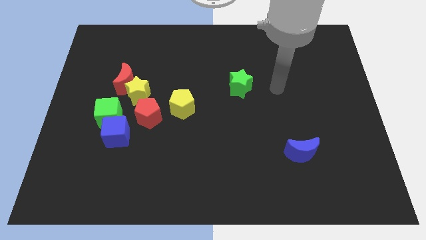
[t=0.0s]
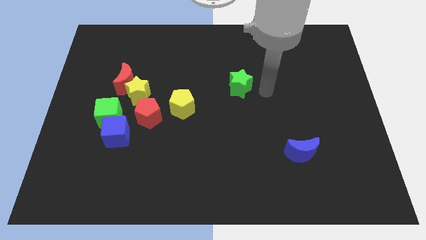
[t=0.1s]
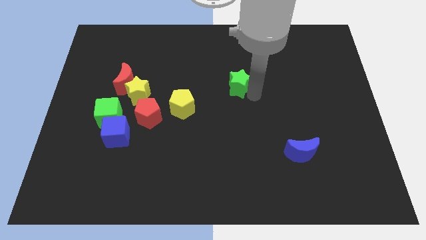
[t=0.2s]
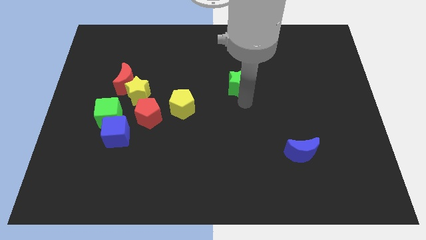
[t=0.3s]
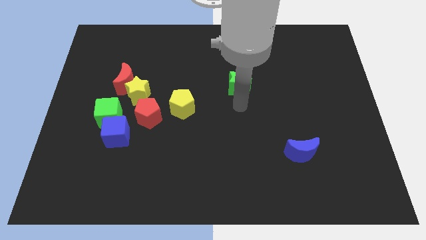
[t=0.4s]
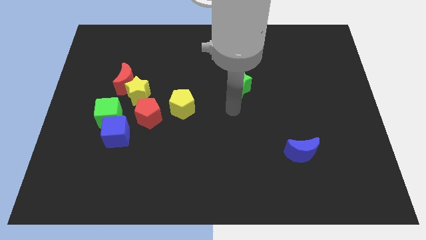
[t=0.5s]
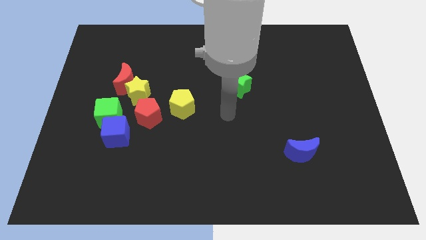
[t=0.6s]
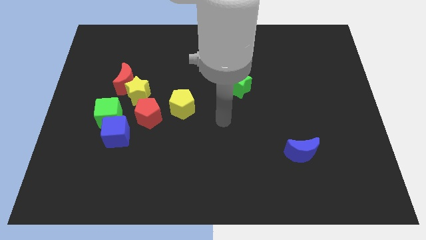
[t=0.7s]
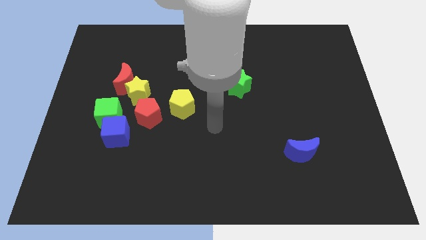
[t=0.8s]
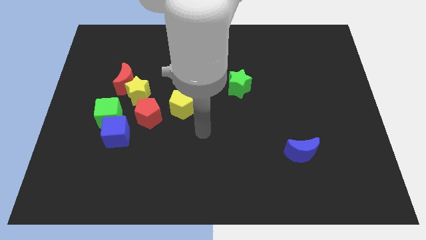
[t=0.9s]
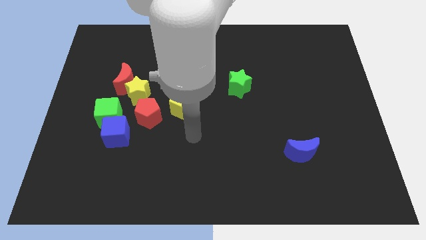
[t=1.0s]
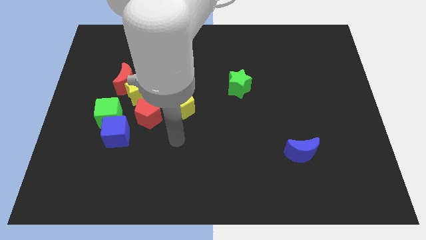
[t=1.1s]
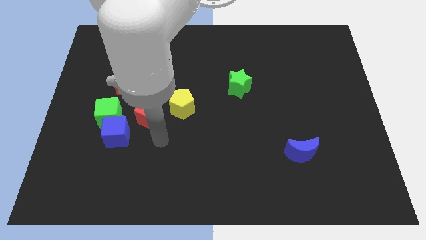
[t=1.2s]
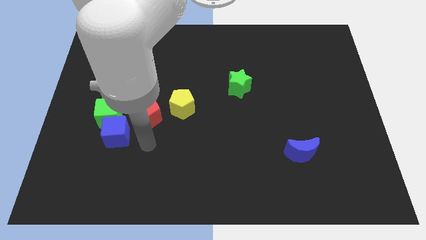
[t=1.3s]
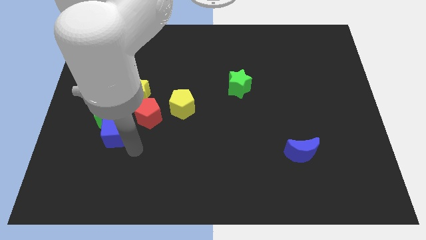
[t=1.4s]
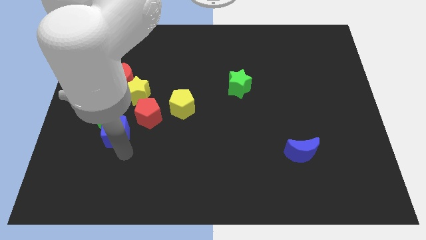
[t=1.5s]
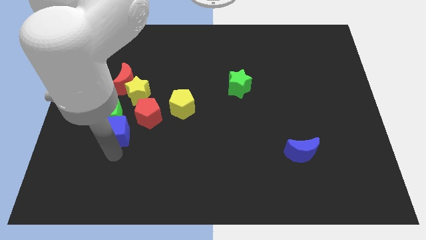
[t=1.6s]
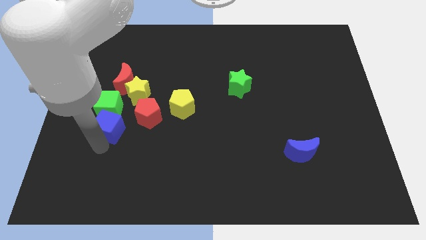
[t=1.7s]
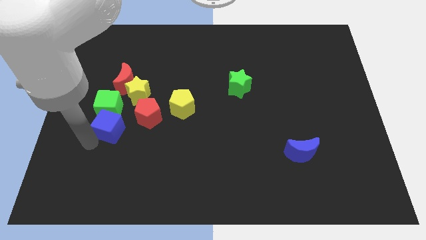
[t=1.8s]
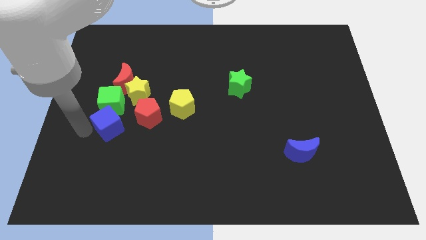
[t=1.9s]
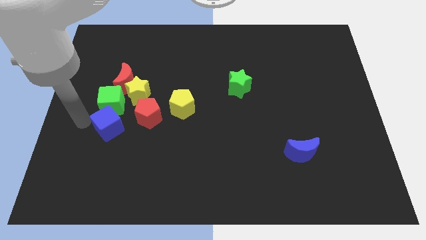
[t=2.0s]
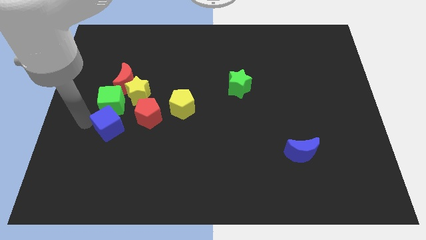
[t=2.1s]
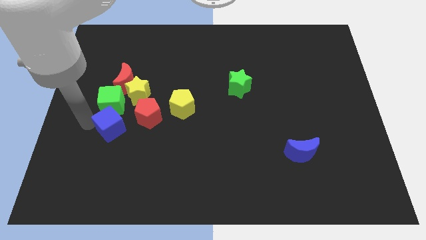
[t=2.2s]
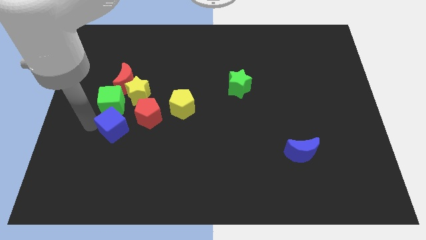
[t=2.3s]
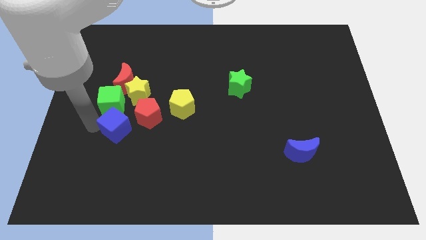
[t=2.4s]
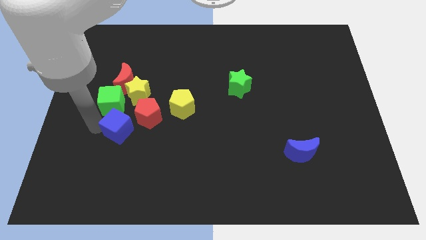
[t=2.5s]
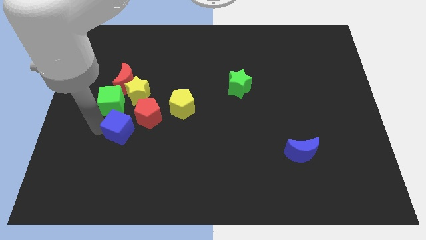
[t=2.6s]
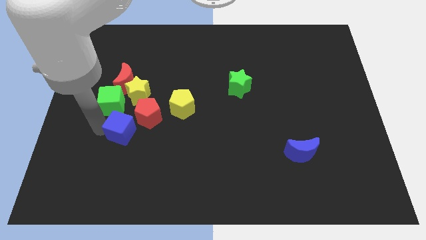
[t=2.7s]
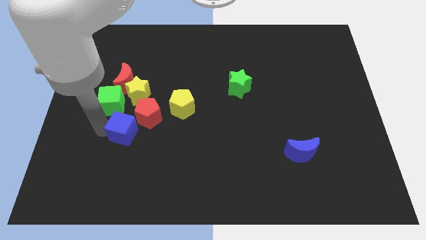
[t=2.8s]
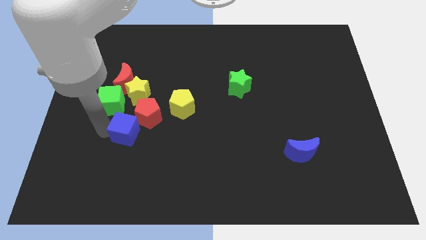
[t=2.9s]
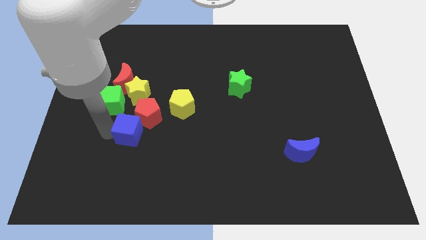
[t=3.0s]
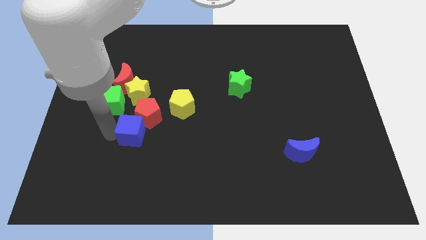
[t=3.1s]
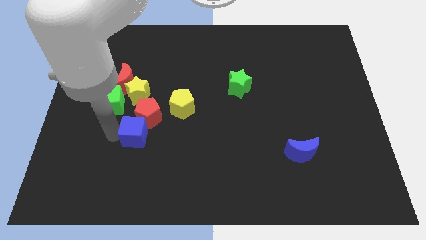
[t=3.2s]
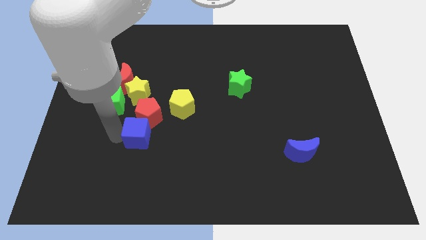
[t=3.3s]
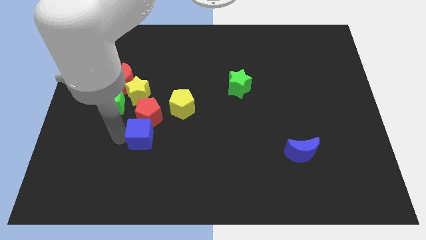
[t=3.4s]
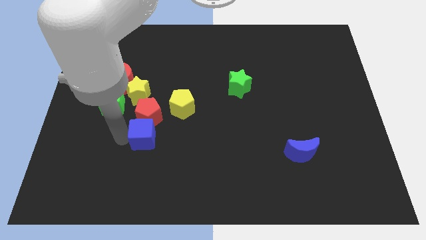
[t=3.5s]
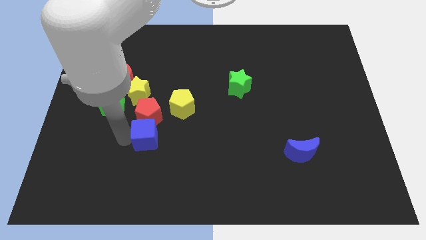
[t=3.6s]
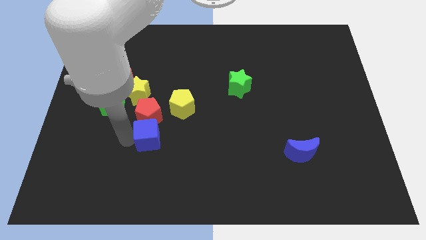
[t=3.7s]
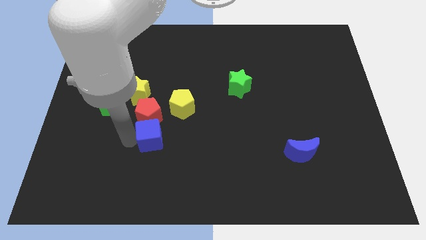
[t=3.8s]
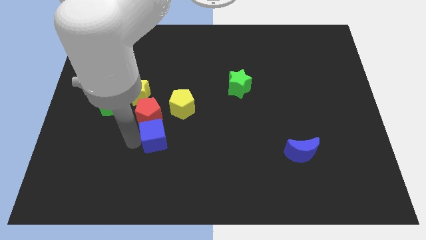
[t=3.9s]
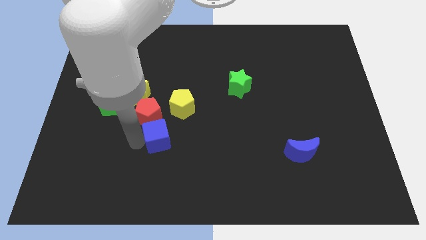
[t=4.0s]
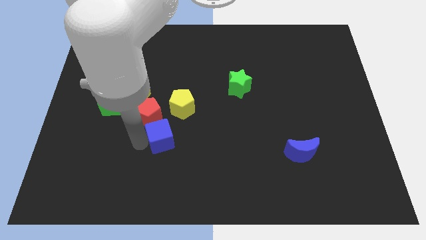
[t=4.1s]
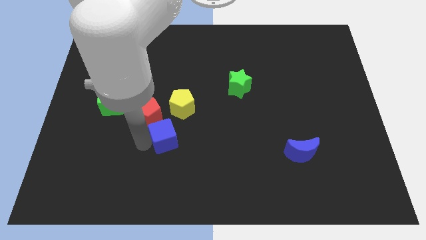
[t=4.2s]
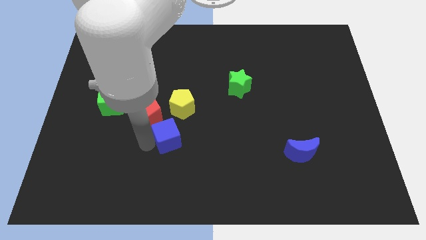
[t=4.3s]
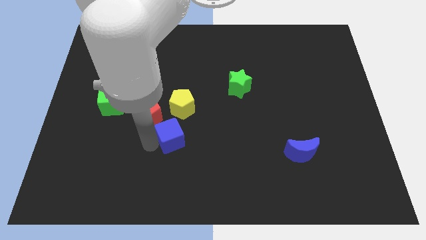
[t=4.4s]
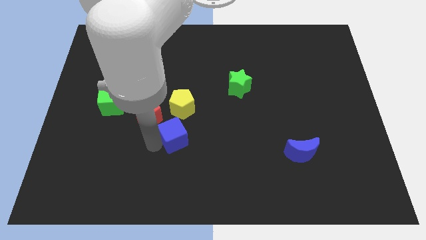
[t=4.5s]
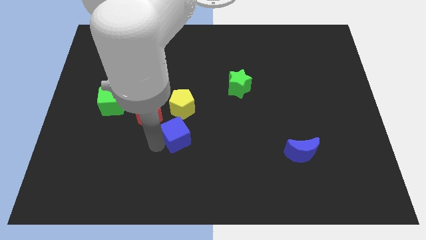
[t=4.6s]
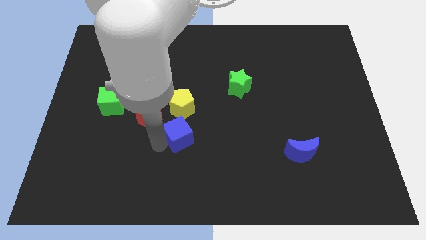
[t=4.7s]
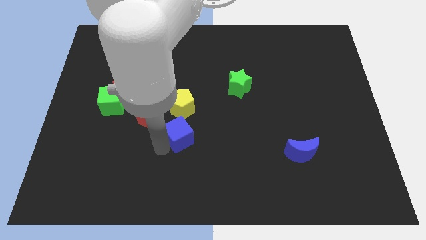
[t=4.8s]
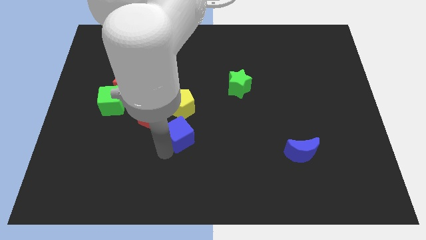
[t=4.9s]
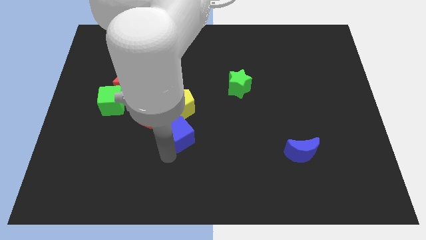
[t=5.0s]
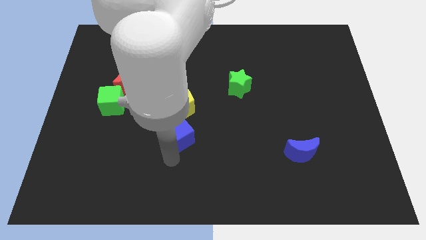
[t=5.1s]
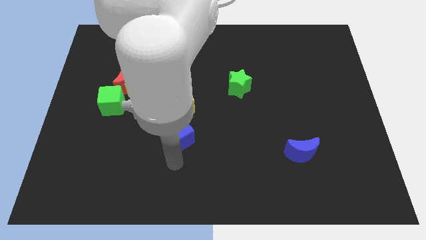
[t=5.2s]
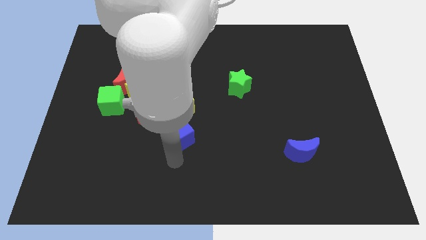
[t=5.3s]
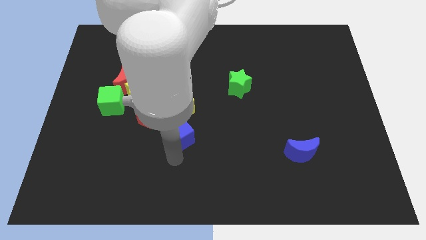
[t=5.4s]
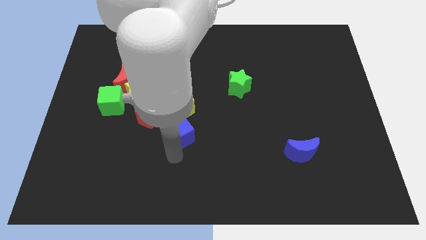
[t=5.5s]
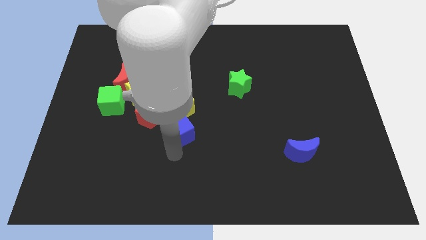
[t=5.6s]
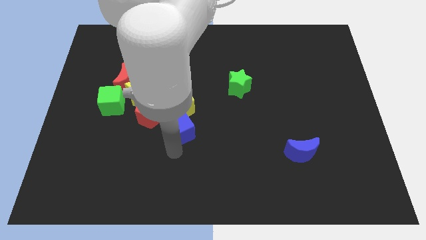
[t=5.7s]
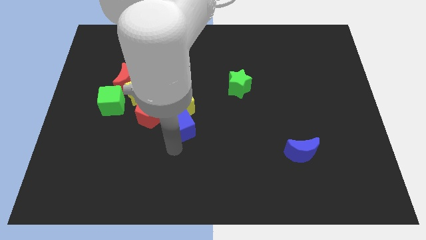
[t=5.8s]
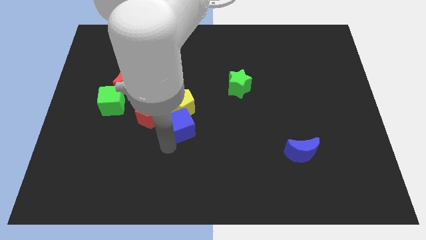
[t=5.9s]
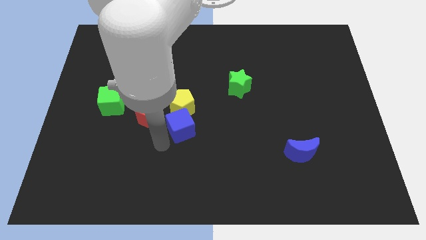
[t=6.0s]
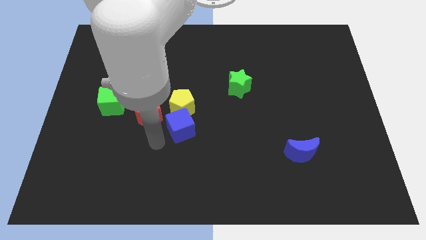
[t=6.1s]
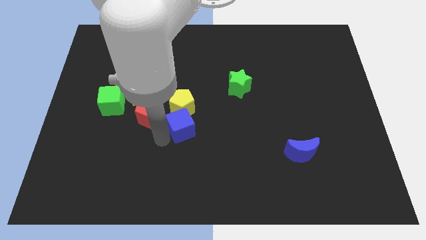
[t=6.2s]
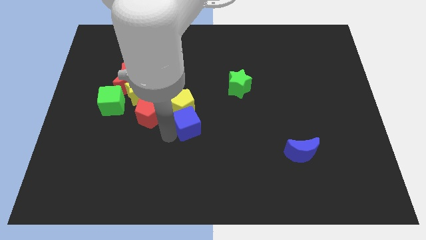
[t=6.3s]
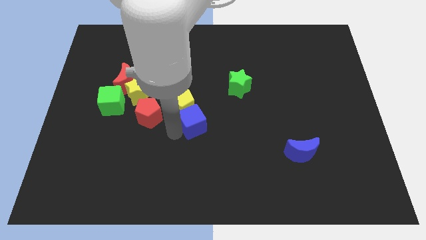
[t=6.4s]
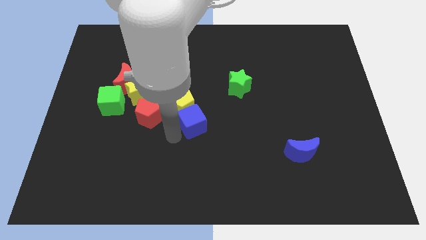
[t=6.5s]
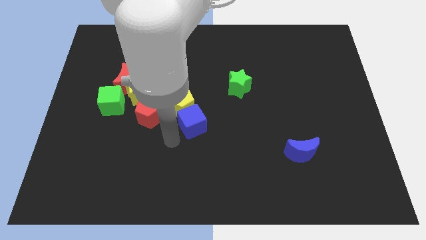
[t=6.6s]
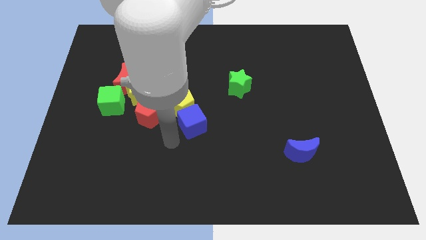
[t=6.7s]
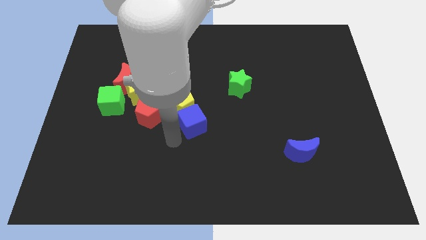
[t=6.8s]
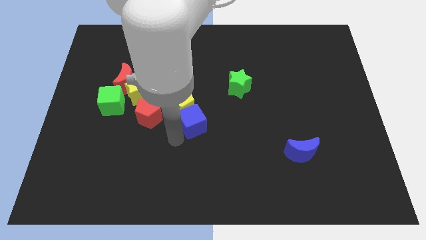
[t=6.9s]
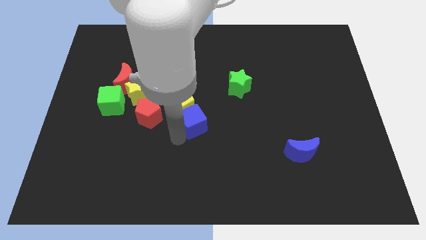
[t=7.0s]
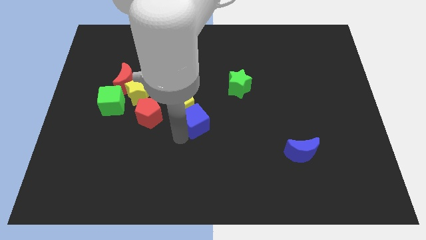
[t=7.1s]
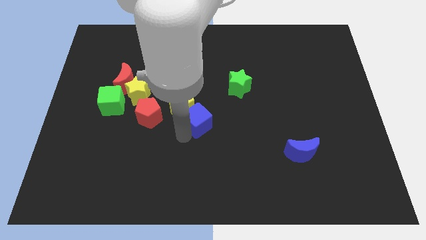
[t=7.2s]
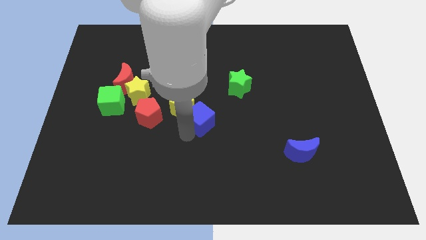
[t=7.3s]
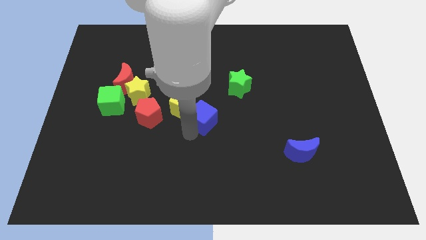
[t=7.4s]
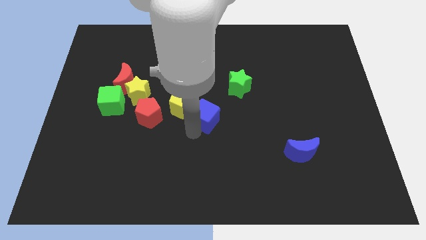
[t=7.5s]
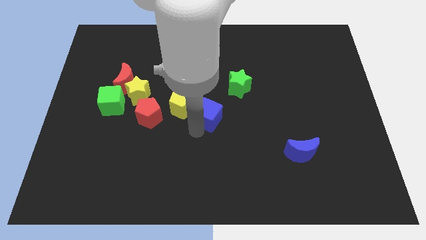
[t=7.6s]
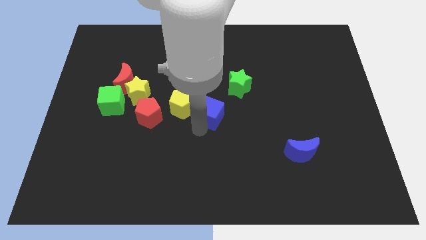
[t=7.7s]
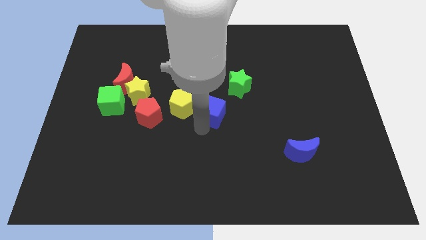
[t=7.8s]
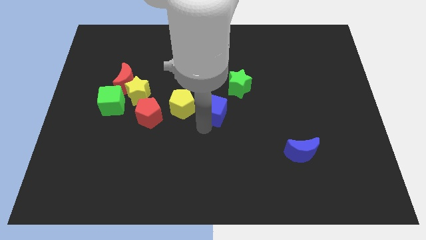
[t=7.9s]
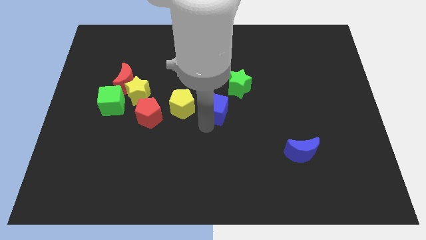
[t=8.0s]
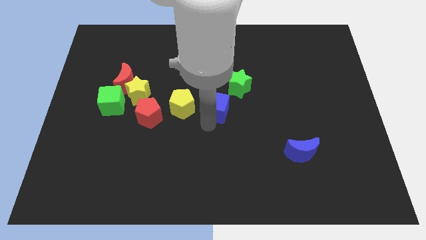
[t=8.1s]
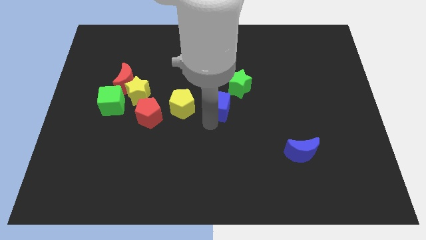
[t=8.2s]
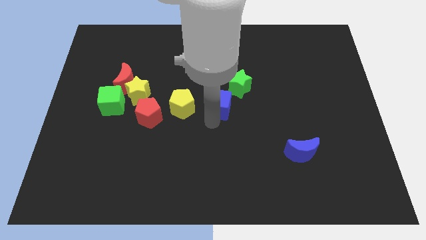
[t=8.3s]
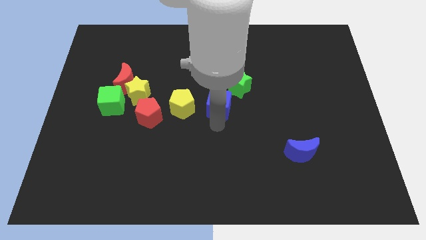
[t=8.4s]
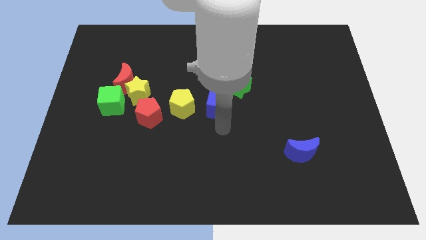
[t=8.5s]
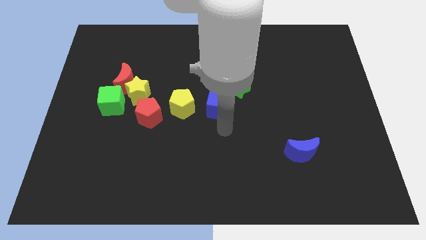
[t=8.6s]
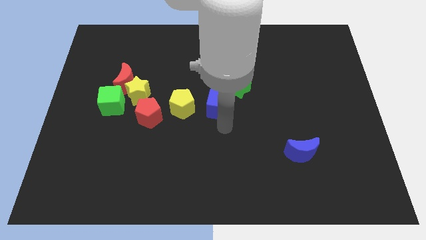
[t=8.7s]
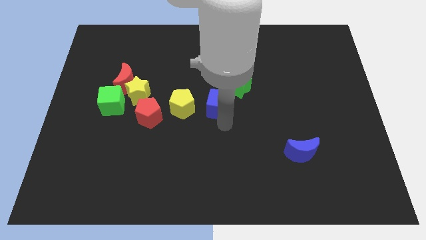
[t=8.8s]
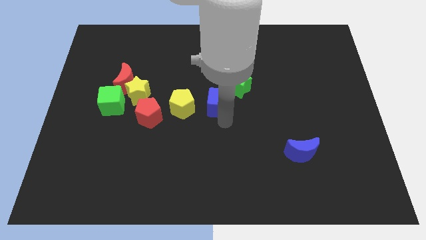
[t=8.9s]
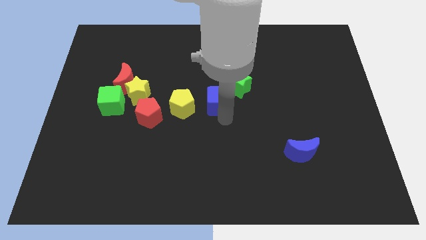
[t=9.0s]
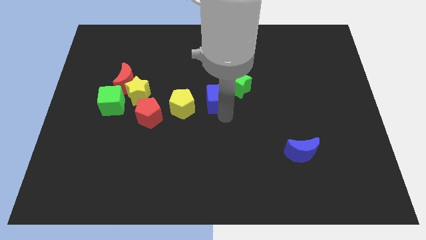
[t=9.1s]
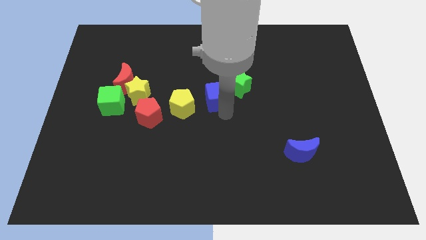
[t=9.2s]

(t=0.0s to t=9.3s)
move the blue cube upwards and then to the right
